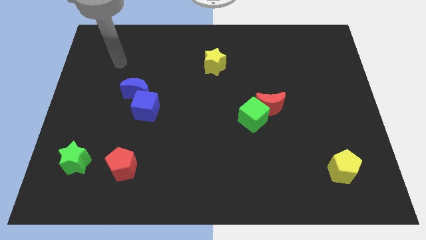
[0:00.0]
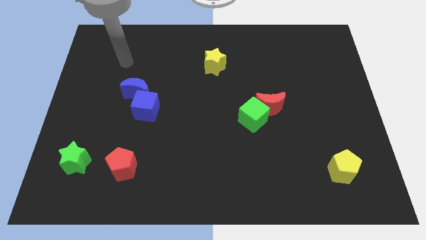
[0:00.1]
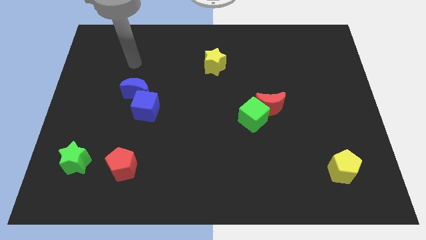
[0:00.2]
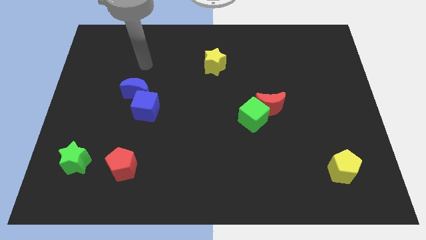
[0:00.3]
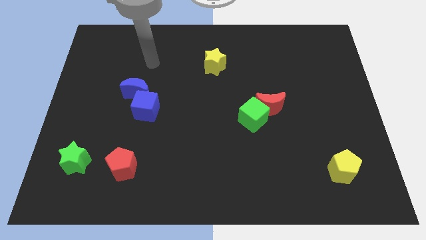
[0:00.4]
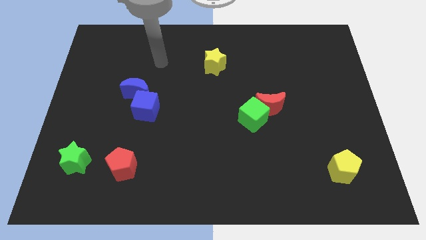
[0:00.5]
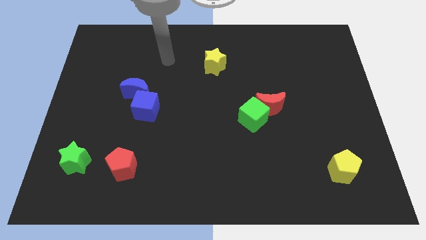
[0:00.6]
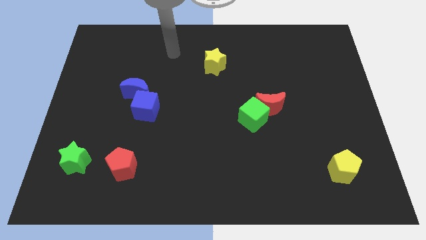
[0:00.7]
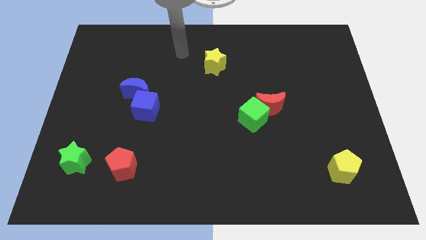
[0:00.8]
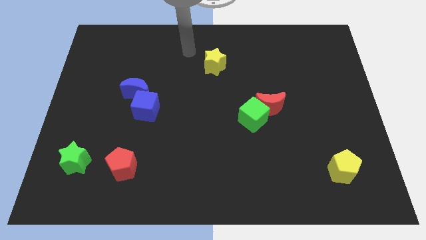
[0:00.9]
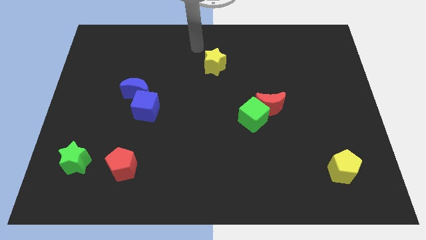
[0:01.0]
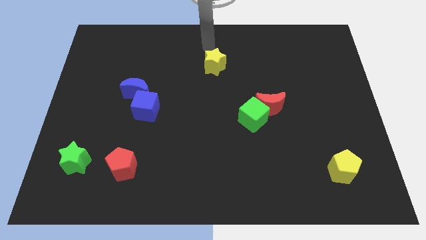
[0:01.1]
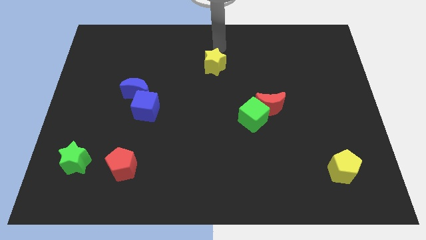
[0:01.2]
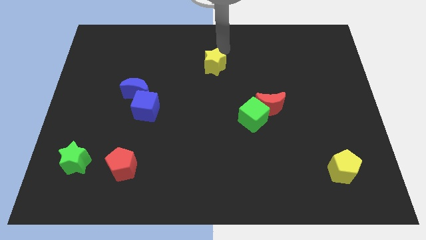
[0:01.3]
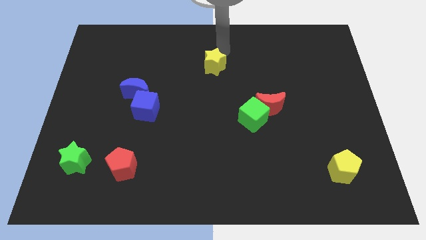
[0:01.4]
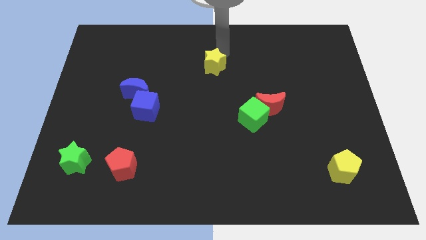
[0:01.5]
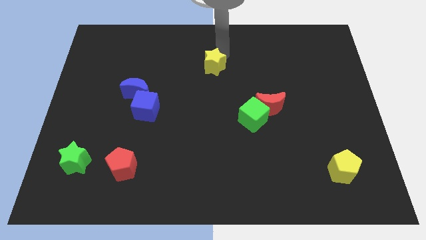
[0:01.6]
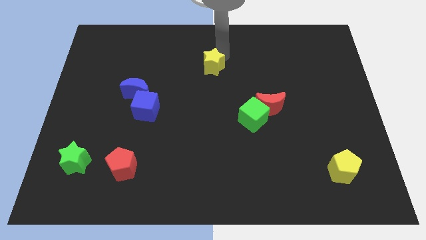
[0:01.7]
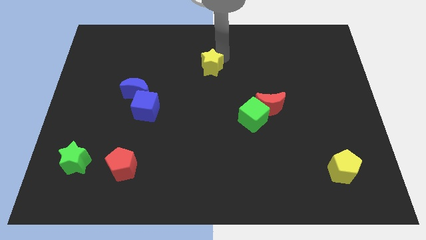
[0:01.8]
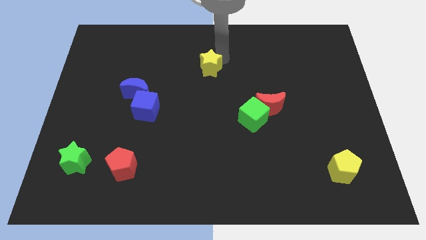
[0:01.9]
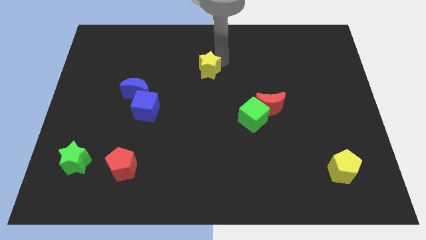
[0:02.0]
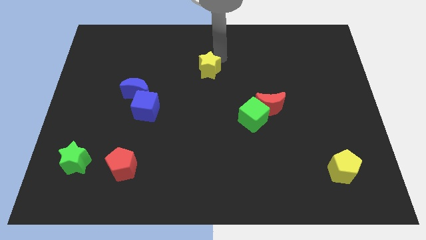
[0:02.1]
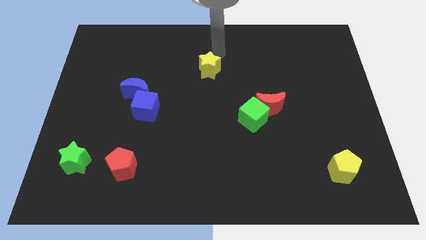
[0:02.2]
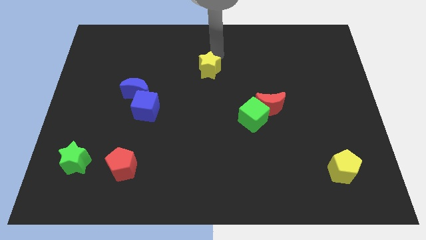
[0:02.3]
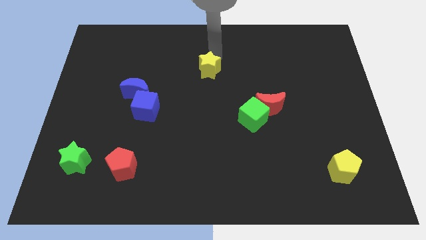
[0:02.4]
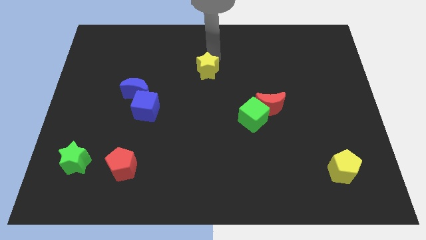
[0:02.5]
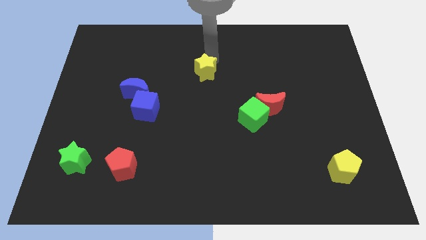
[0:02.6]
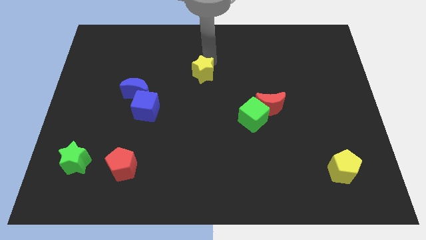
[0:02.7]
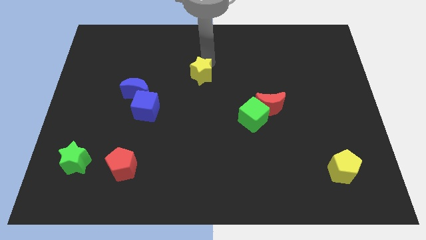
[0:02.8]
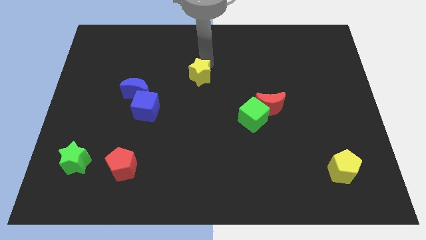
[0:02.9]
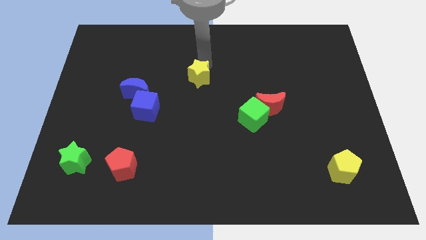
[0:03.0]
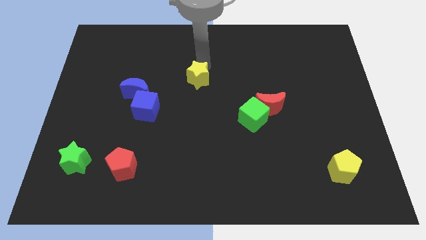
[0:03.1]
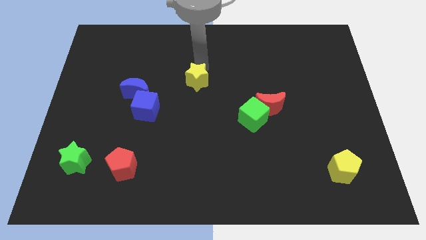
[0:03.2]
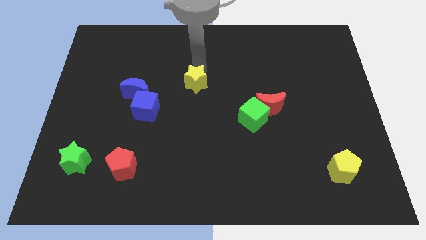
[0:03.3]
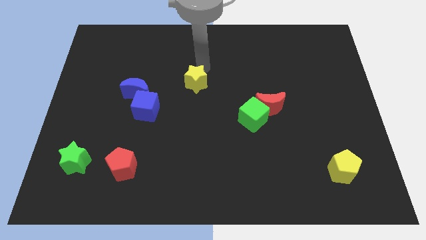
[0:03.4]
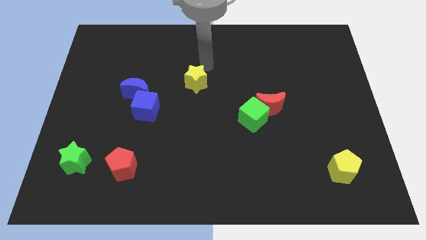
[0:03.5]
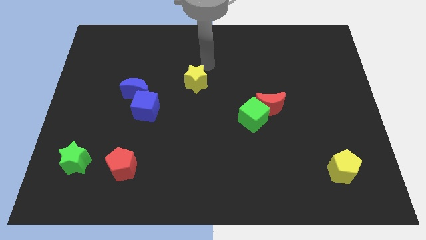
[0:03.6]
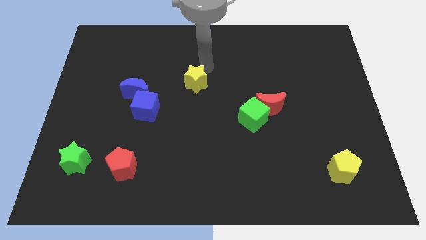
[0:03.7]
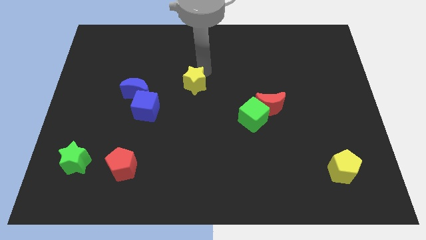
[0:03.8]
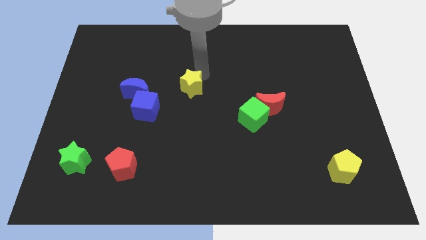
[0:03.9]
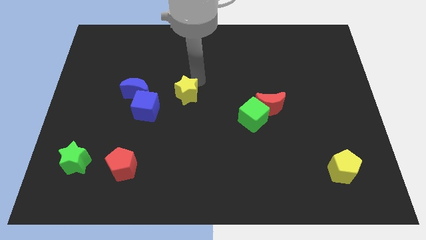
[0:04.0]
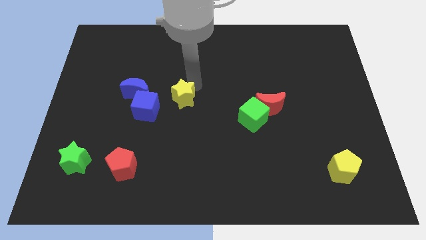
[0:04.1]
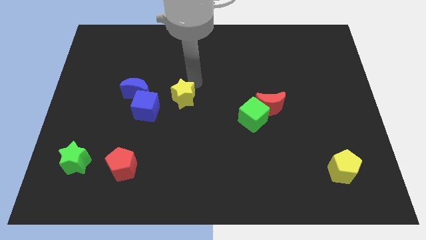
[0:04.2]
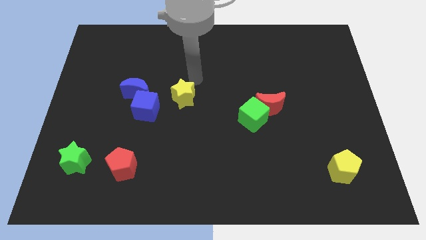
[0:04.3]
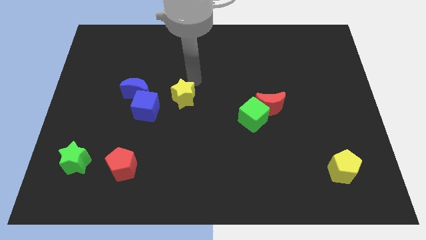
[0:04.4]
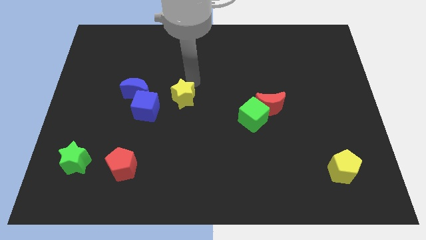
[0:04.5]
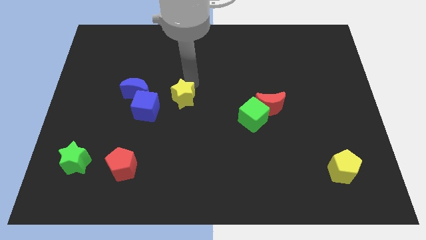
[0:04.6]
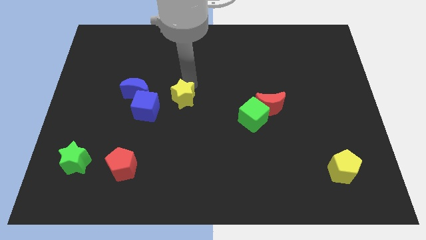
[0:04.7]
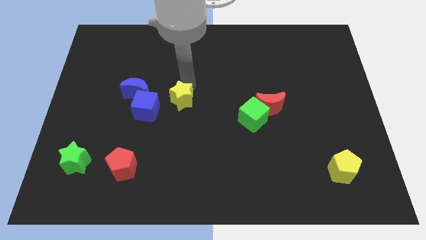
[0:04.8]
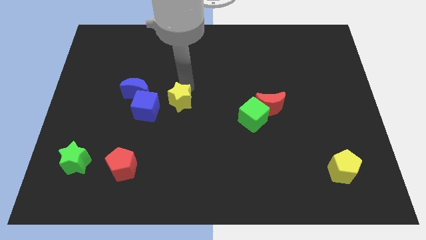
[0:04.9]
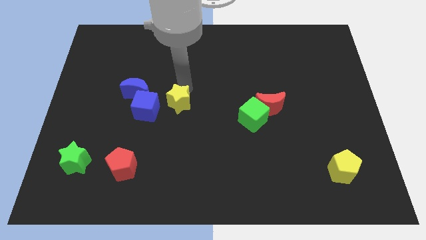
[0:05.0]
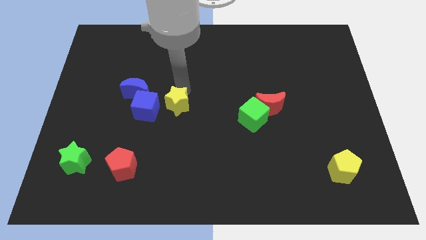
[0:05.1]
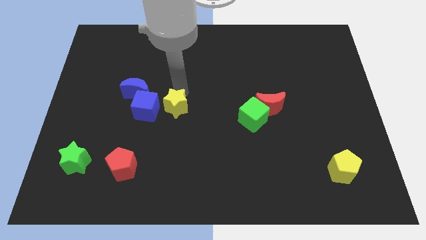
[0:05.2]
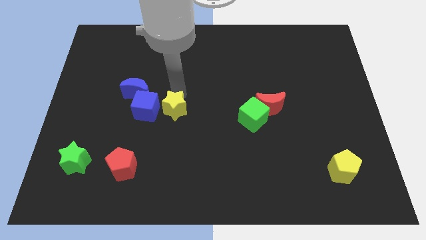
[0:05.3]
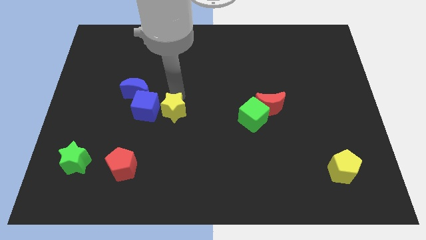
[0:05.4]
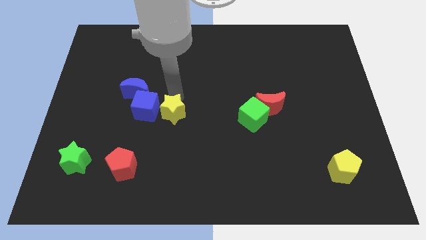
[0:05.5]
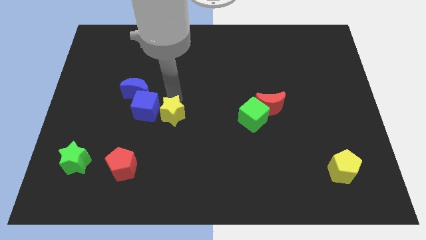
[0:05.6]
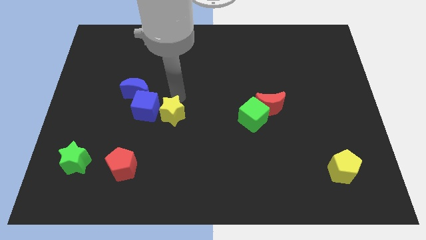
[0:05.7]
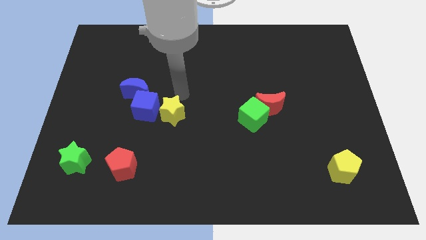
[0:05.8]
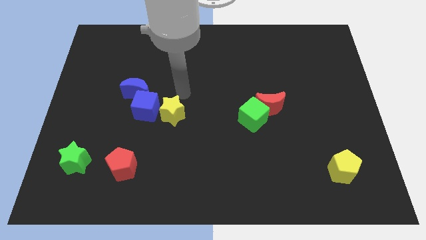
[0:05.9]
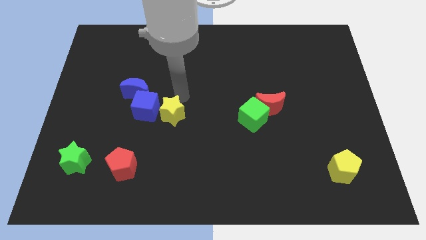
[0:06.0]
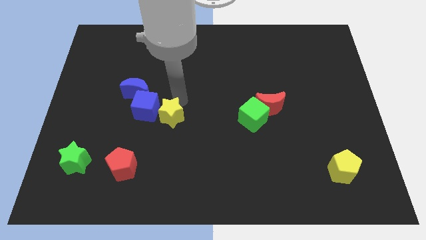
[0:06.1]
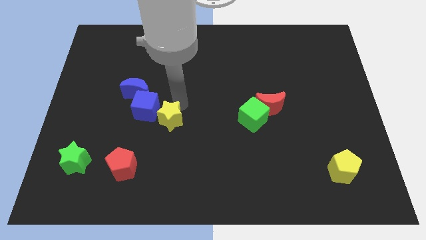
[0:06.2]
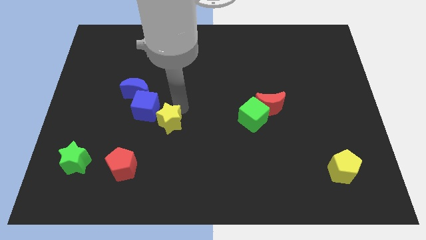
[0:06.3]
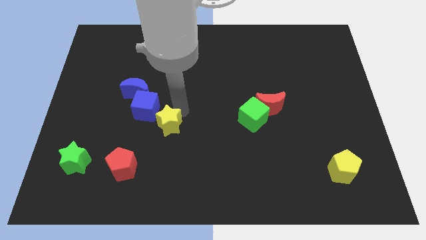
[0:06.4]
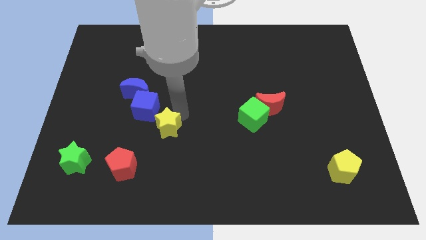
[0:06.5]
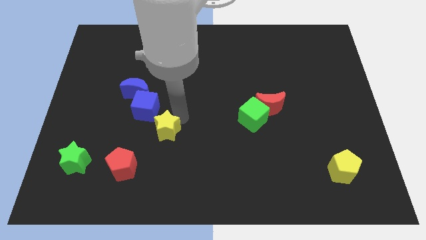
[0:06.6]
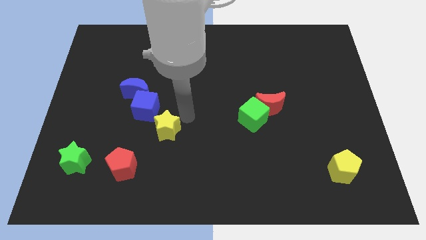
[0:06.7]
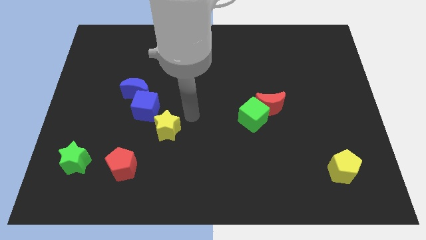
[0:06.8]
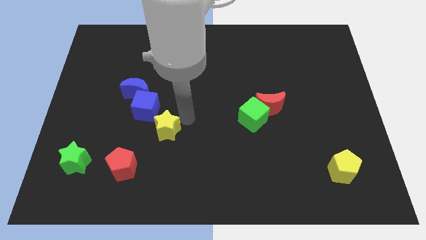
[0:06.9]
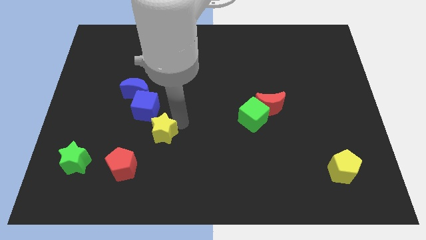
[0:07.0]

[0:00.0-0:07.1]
put the yellow star to the bottom side of the blue cube

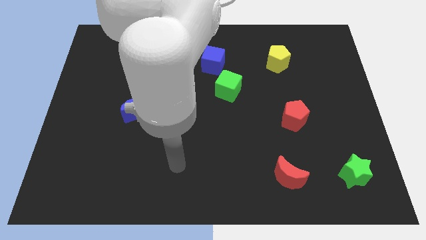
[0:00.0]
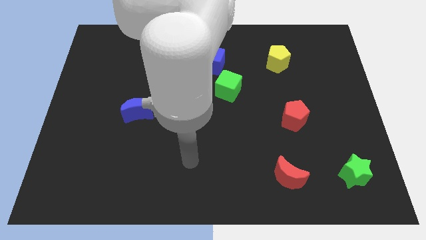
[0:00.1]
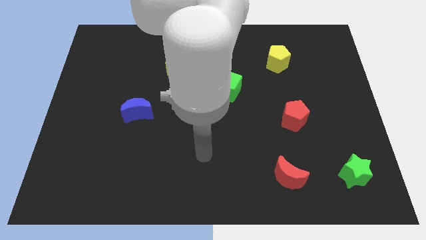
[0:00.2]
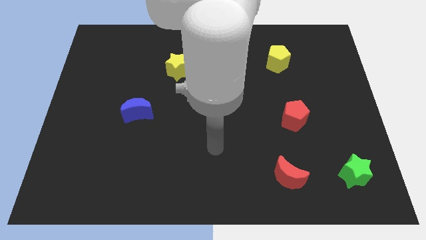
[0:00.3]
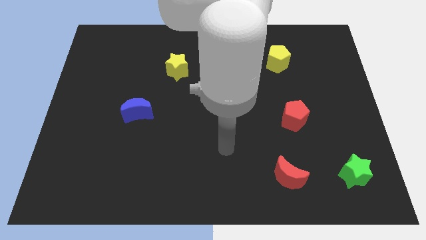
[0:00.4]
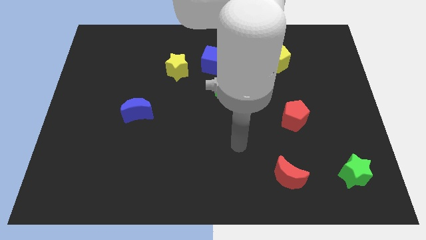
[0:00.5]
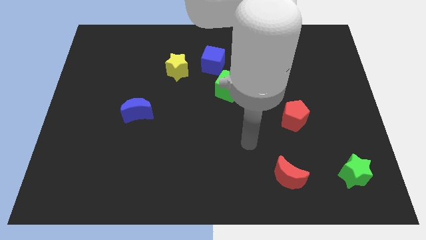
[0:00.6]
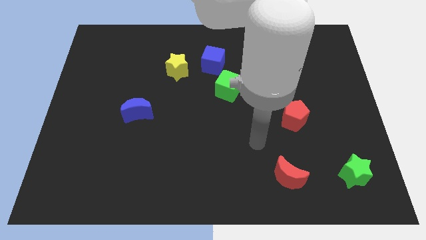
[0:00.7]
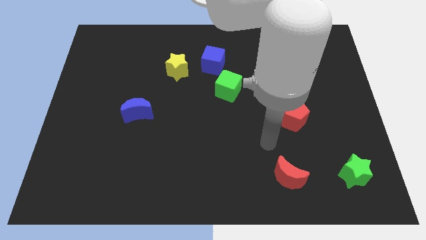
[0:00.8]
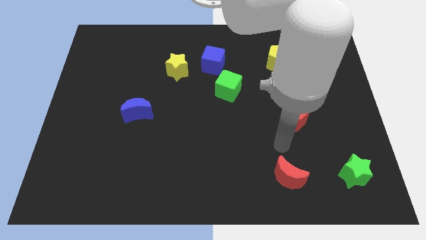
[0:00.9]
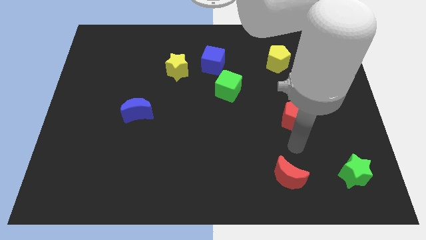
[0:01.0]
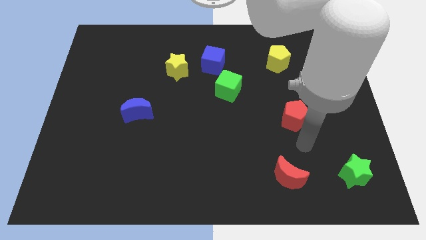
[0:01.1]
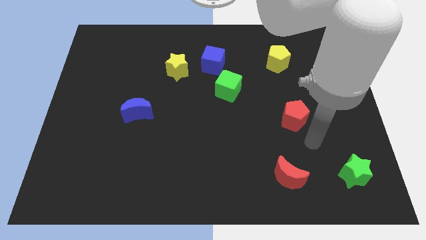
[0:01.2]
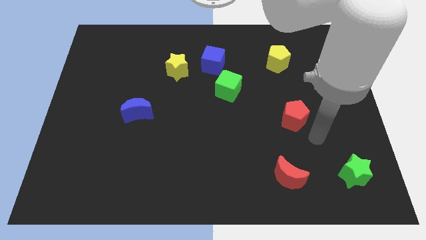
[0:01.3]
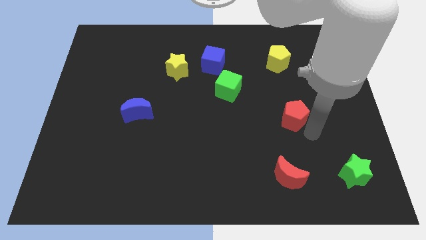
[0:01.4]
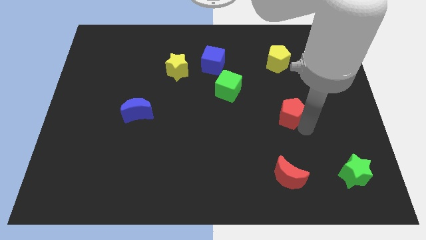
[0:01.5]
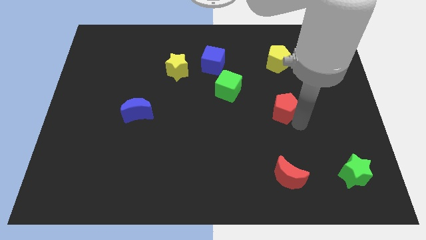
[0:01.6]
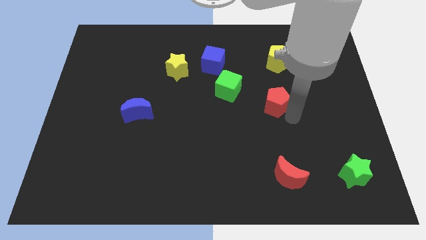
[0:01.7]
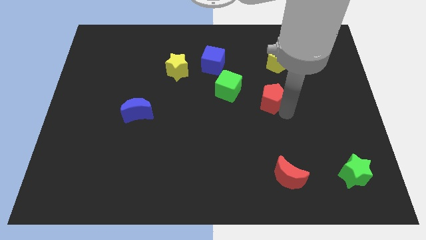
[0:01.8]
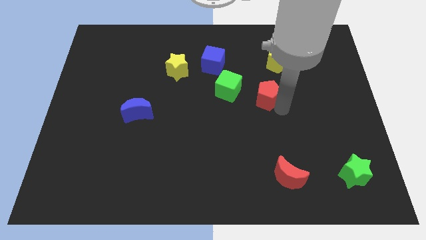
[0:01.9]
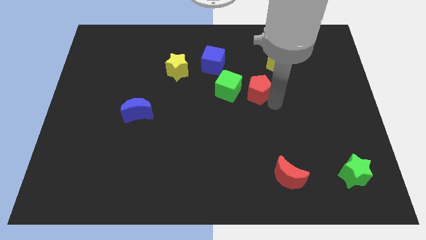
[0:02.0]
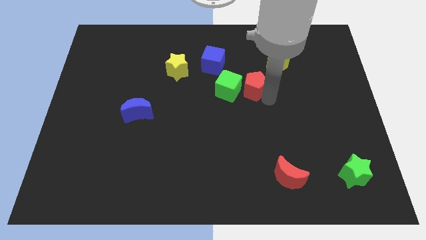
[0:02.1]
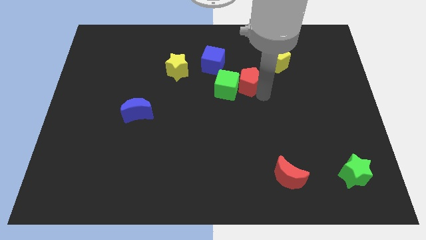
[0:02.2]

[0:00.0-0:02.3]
move the red pentagon to the bottom right of the blue cube
